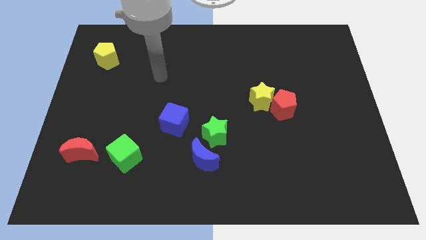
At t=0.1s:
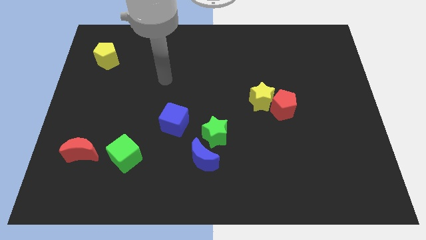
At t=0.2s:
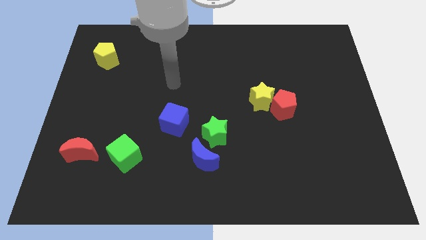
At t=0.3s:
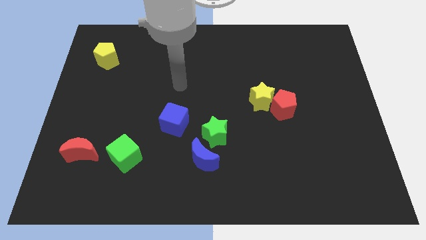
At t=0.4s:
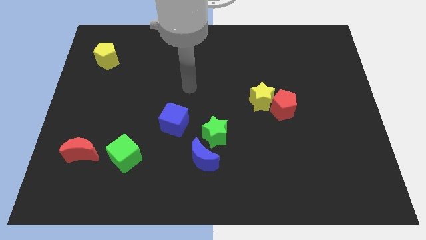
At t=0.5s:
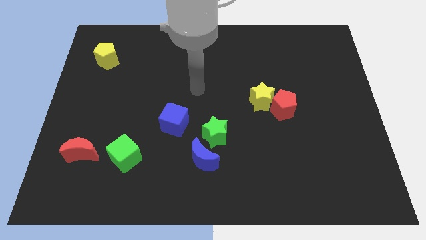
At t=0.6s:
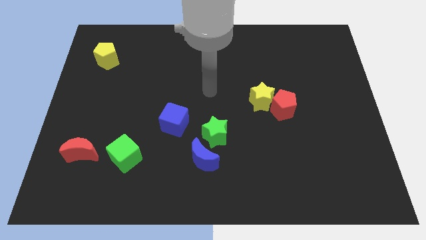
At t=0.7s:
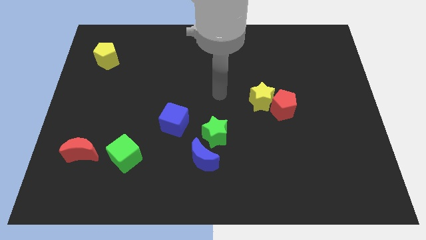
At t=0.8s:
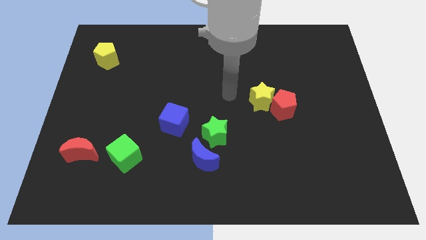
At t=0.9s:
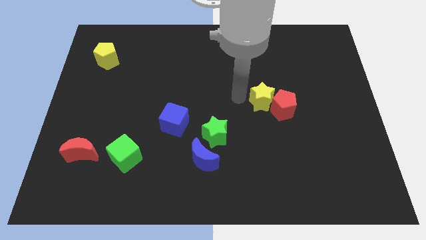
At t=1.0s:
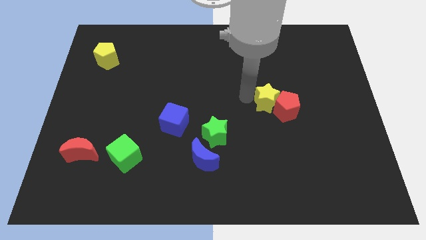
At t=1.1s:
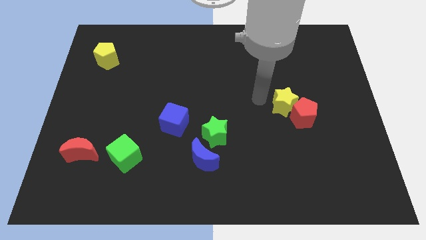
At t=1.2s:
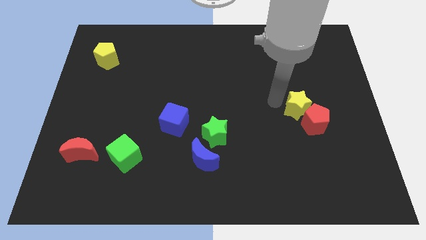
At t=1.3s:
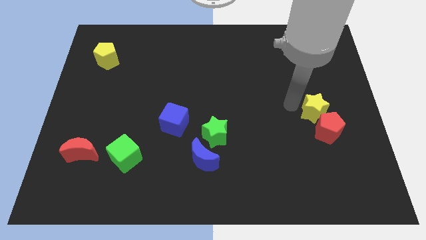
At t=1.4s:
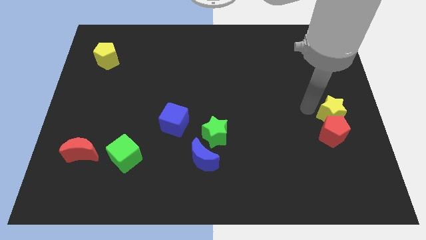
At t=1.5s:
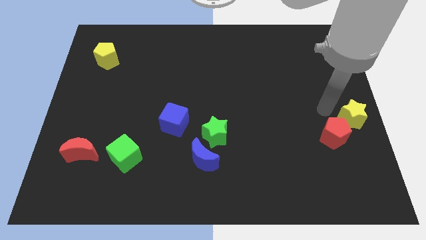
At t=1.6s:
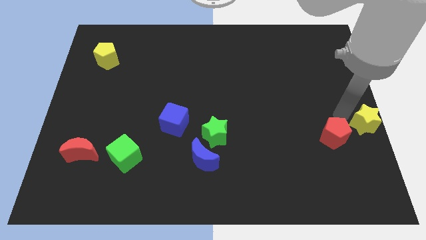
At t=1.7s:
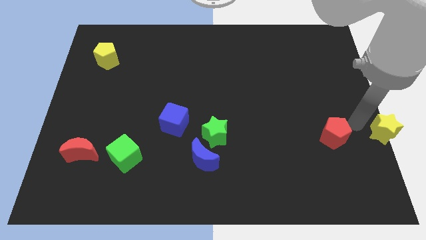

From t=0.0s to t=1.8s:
move the red pentagon away from the yellow star

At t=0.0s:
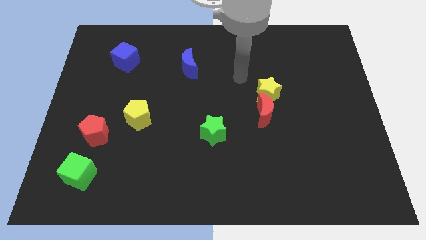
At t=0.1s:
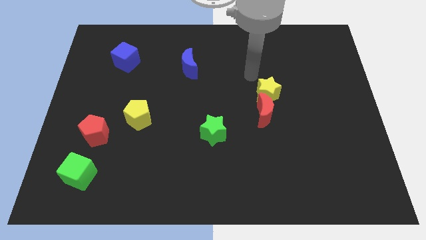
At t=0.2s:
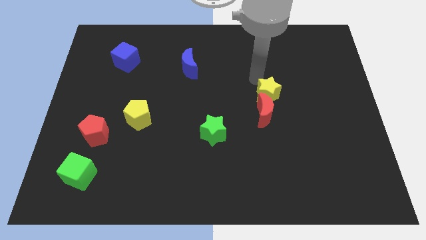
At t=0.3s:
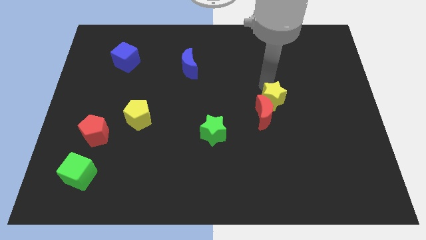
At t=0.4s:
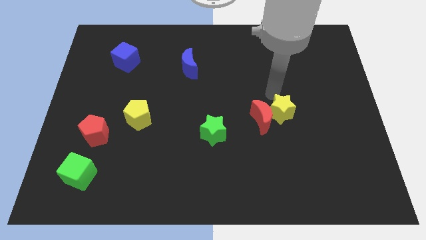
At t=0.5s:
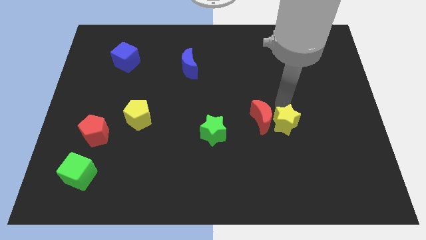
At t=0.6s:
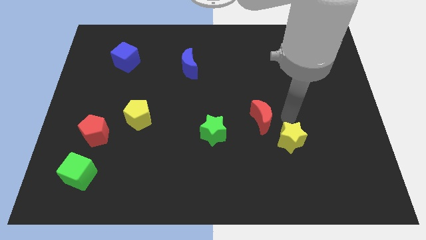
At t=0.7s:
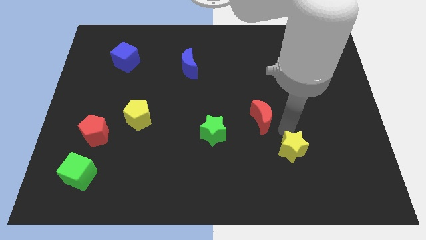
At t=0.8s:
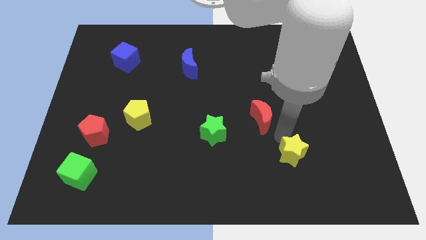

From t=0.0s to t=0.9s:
move the red moon away from the yellow star

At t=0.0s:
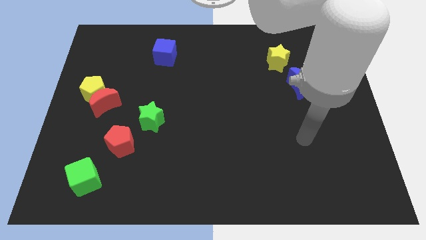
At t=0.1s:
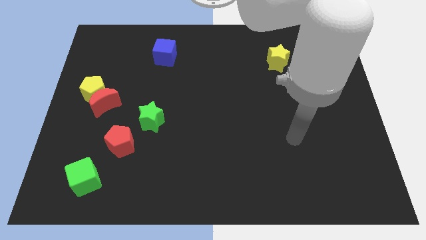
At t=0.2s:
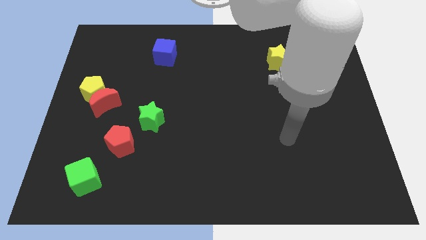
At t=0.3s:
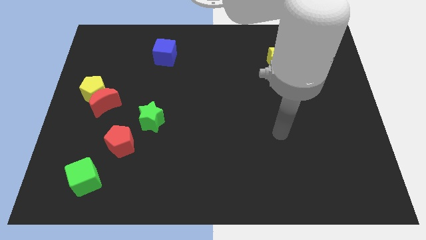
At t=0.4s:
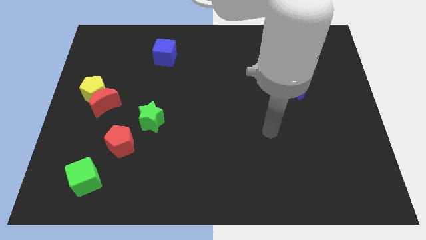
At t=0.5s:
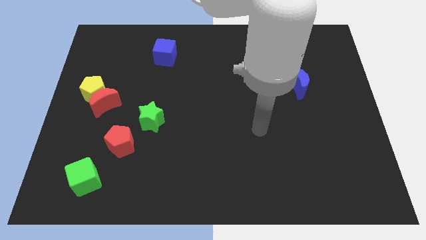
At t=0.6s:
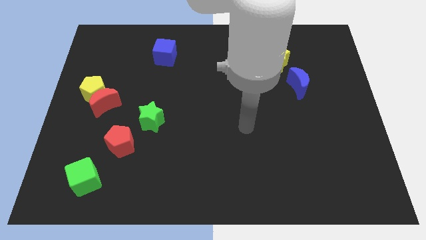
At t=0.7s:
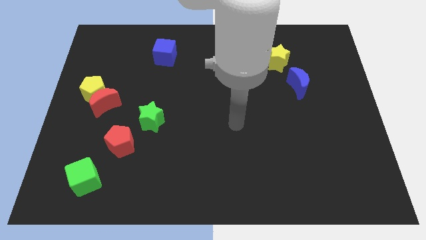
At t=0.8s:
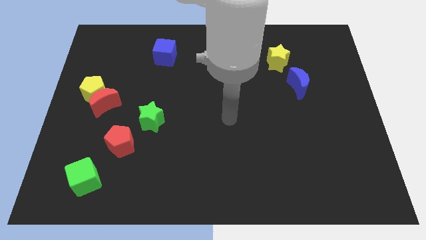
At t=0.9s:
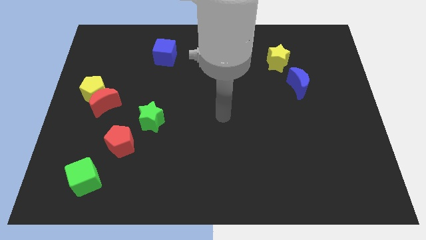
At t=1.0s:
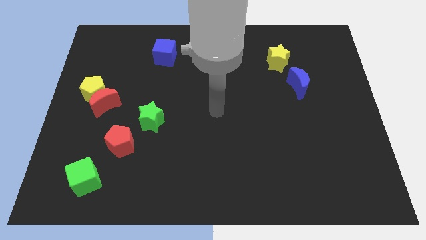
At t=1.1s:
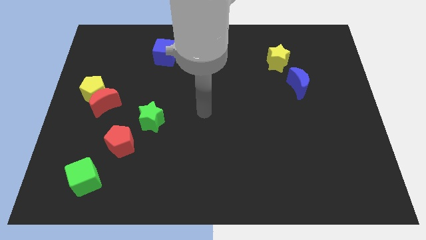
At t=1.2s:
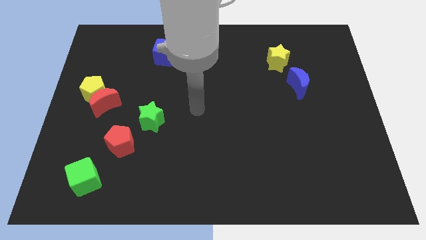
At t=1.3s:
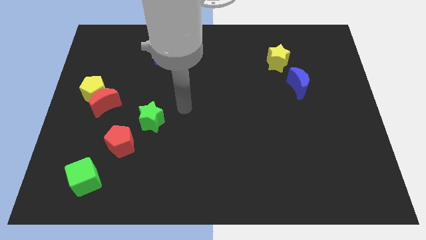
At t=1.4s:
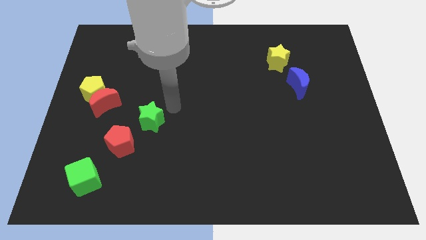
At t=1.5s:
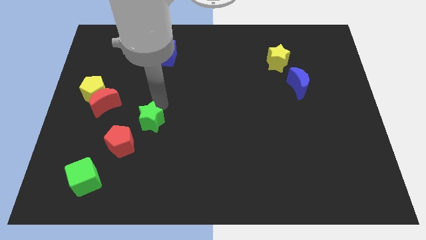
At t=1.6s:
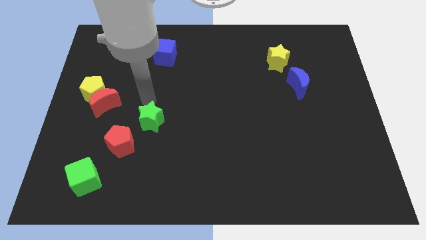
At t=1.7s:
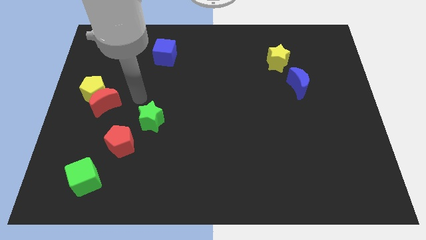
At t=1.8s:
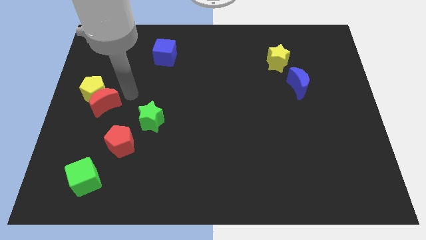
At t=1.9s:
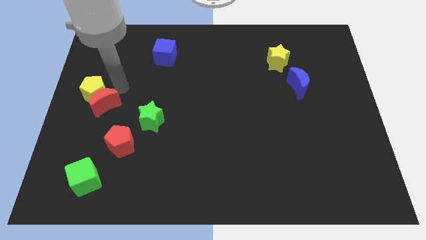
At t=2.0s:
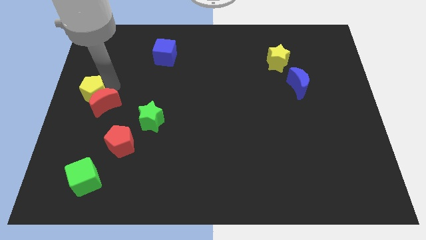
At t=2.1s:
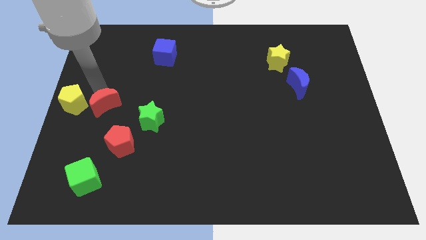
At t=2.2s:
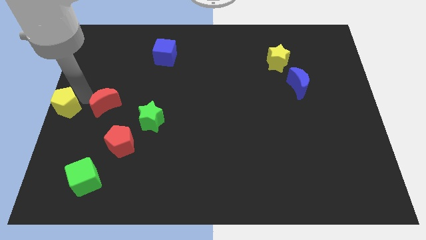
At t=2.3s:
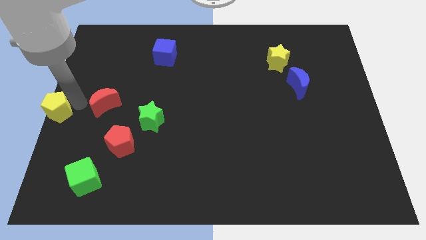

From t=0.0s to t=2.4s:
move the red moon away from the yellow pentagon

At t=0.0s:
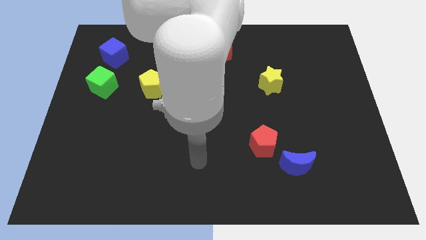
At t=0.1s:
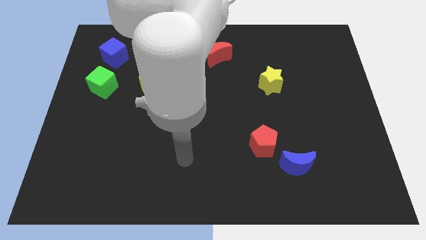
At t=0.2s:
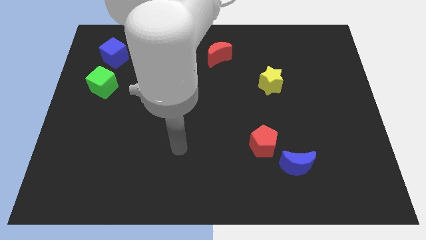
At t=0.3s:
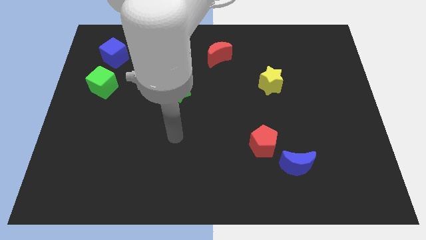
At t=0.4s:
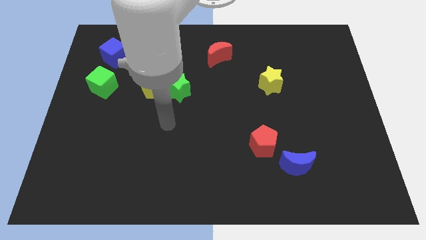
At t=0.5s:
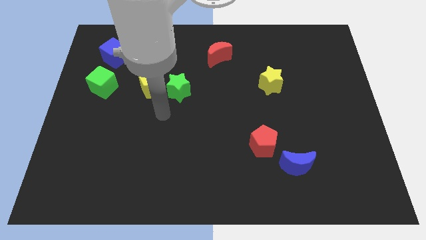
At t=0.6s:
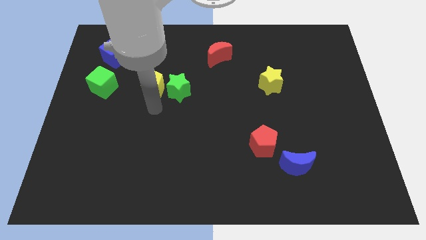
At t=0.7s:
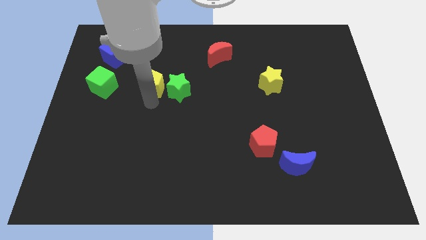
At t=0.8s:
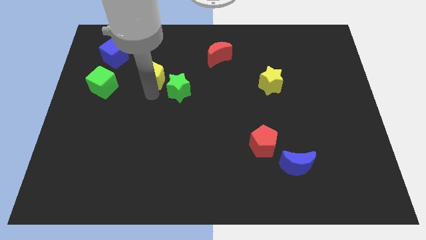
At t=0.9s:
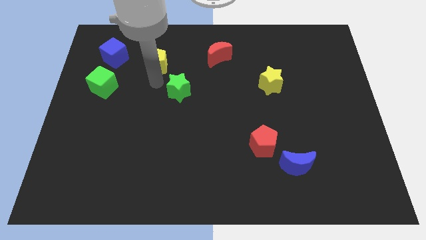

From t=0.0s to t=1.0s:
pull the green star apart from the yellow pentagon

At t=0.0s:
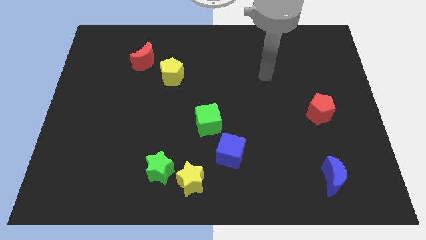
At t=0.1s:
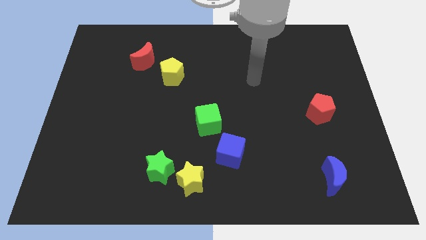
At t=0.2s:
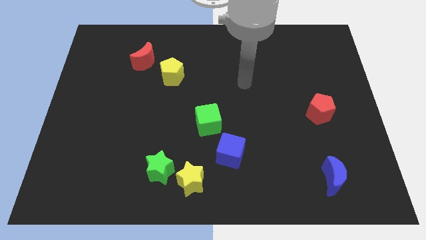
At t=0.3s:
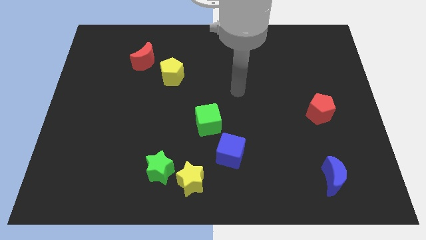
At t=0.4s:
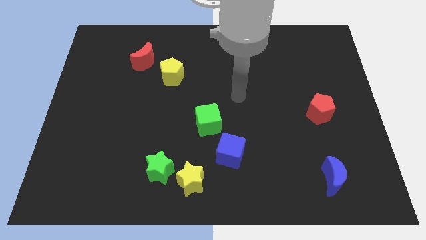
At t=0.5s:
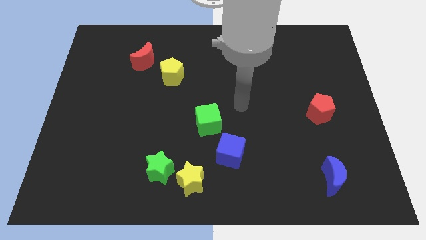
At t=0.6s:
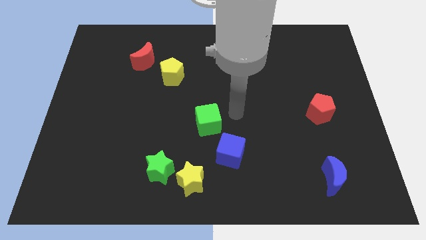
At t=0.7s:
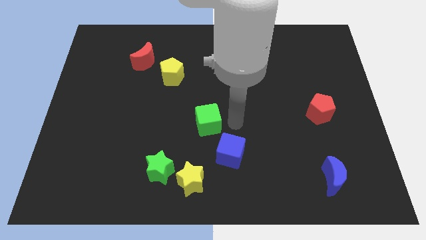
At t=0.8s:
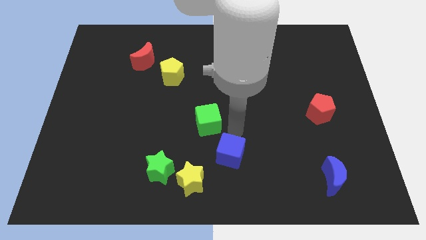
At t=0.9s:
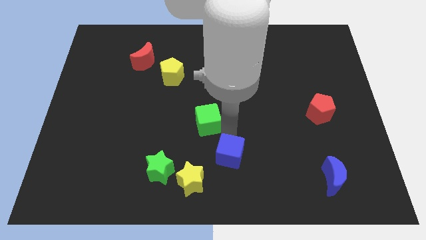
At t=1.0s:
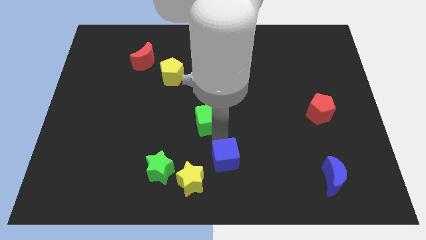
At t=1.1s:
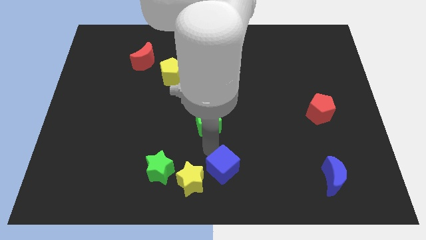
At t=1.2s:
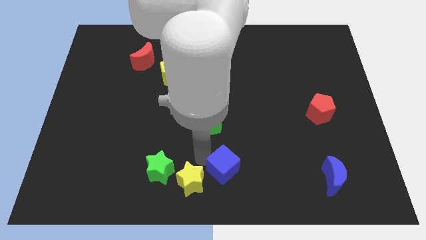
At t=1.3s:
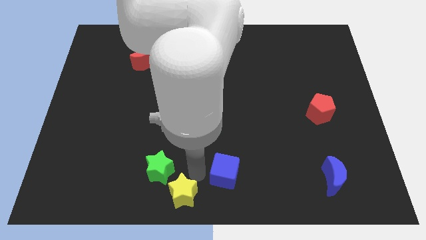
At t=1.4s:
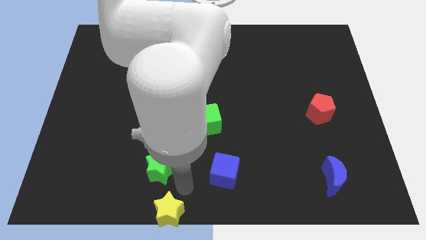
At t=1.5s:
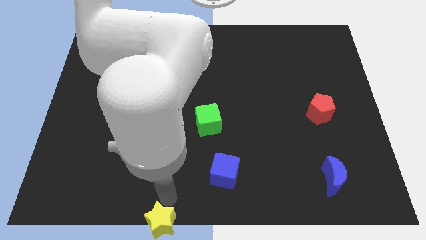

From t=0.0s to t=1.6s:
move the green star away from the yellow star

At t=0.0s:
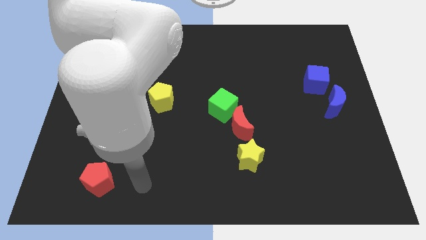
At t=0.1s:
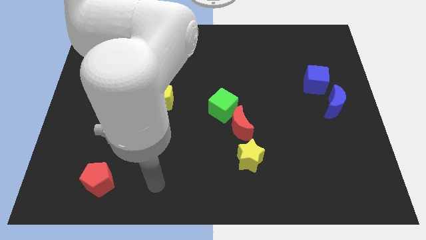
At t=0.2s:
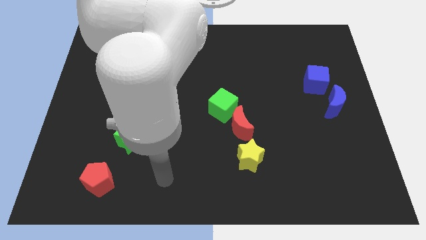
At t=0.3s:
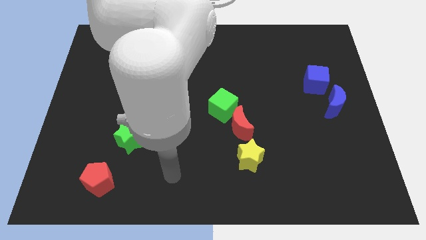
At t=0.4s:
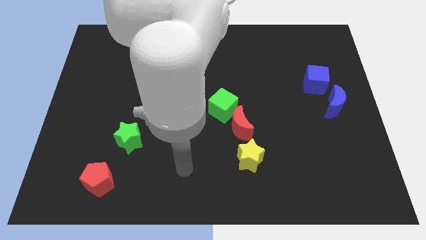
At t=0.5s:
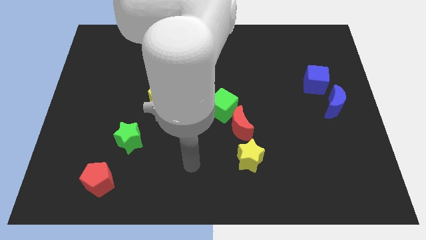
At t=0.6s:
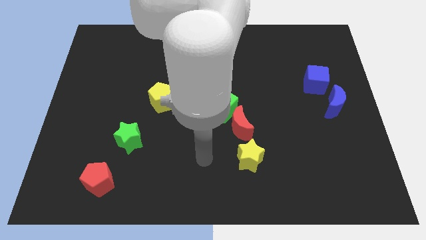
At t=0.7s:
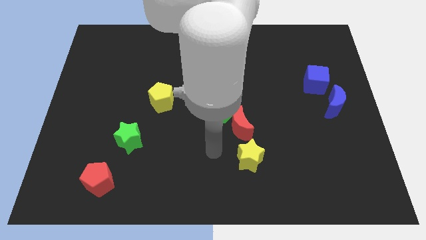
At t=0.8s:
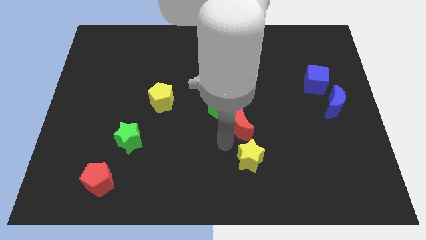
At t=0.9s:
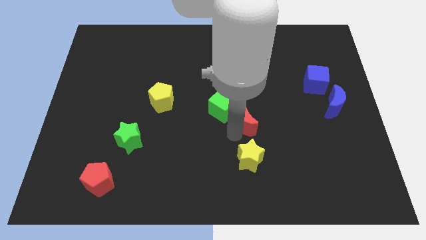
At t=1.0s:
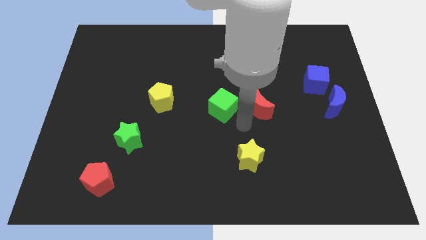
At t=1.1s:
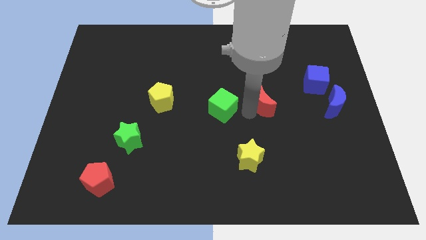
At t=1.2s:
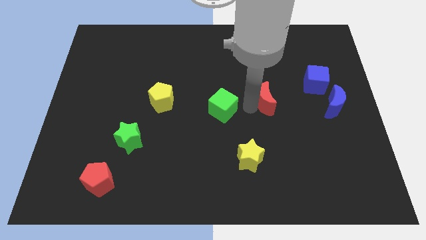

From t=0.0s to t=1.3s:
pull the green cube apart from the red moon

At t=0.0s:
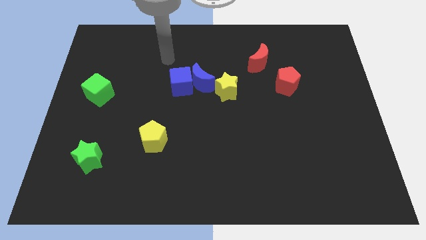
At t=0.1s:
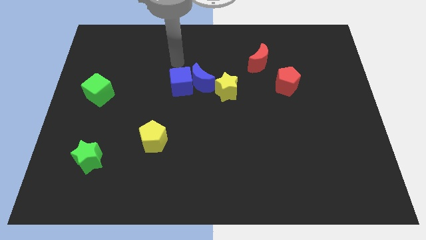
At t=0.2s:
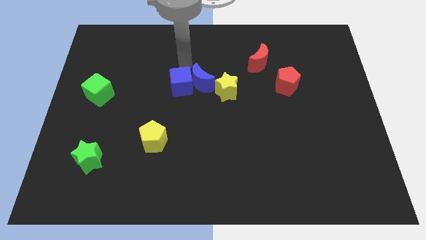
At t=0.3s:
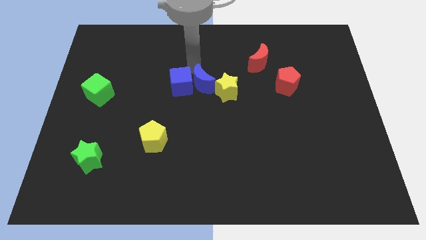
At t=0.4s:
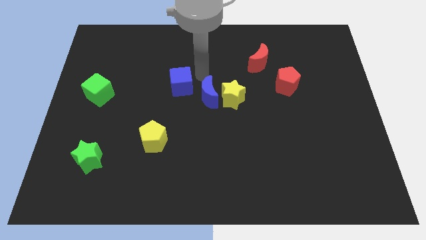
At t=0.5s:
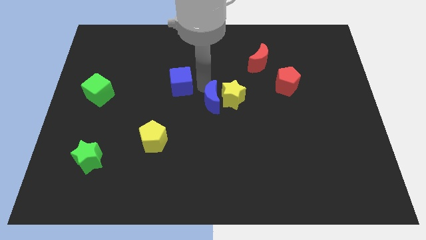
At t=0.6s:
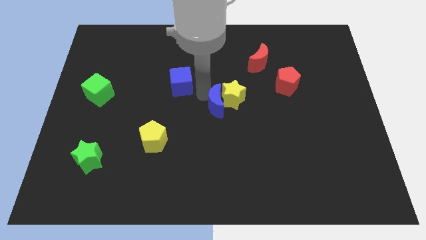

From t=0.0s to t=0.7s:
move the blue cube away from the blue moon
